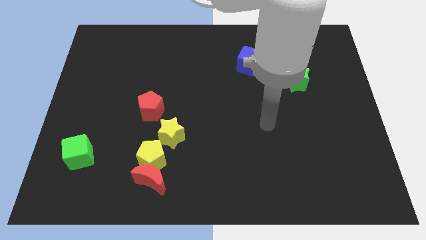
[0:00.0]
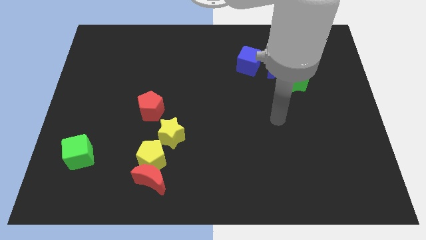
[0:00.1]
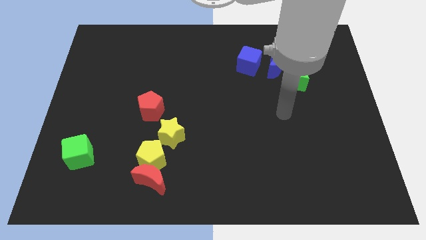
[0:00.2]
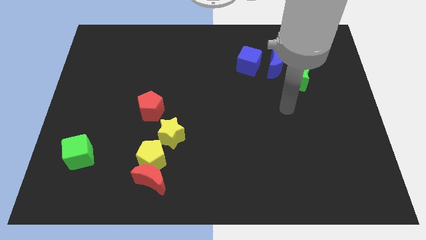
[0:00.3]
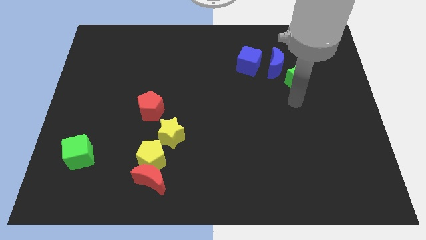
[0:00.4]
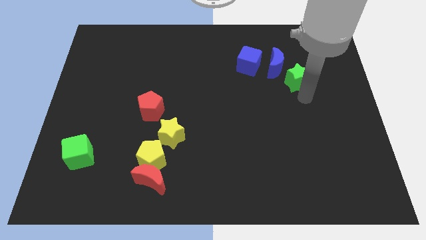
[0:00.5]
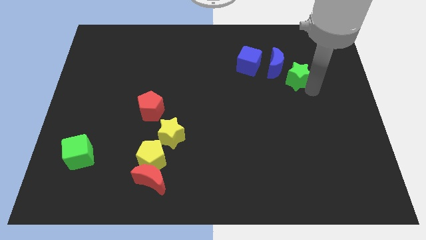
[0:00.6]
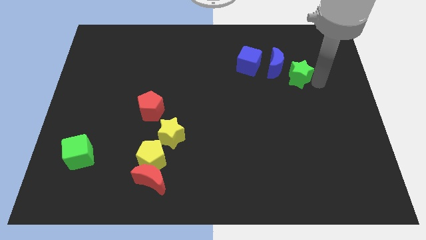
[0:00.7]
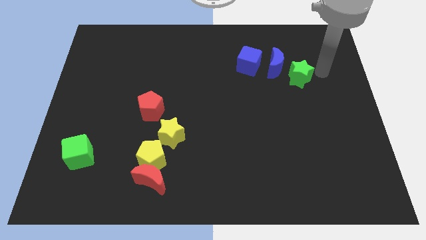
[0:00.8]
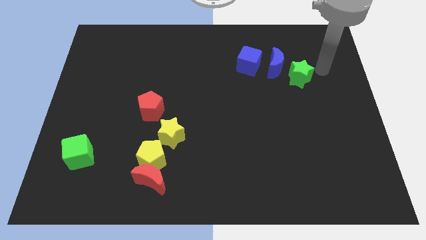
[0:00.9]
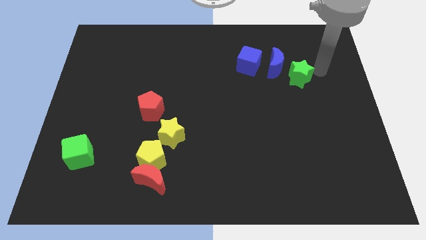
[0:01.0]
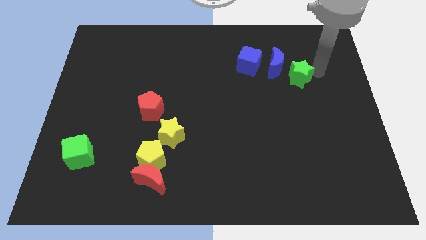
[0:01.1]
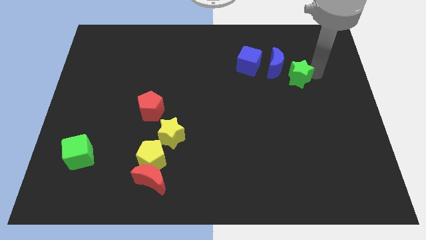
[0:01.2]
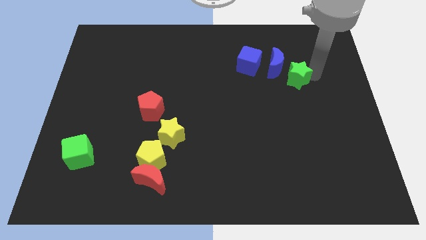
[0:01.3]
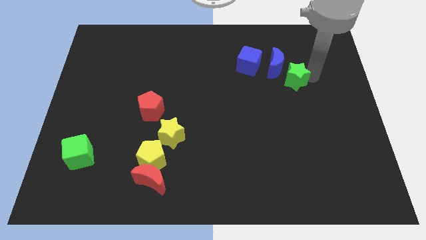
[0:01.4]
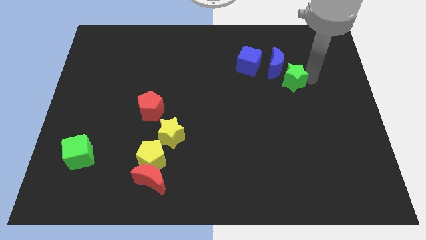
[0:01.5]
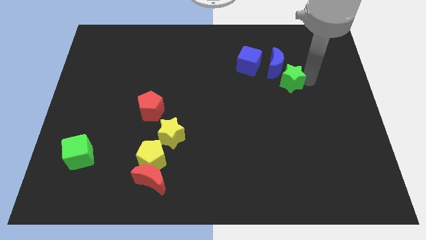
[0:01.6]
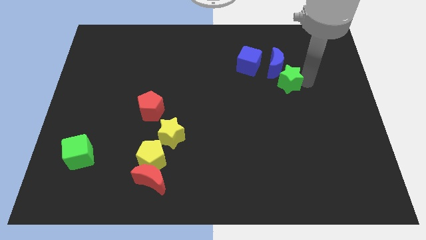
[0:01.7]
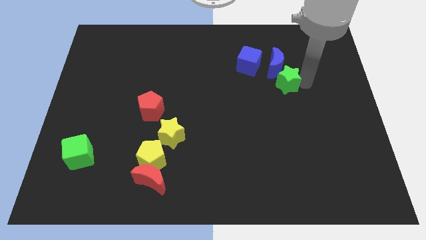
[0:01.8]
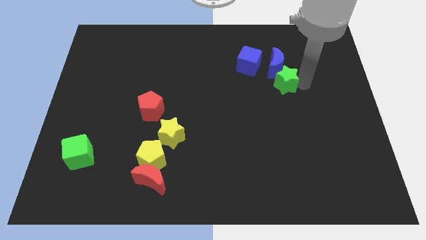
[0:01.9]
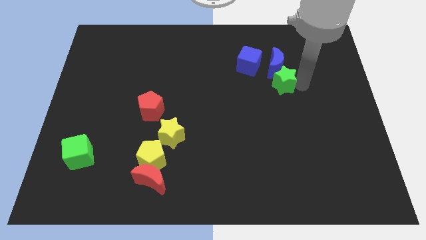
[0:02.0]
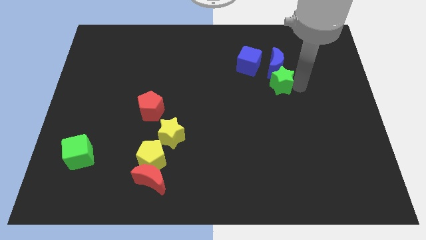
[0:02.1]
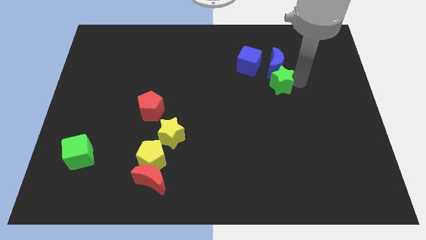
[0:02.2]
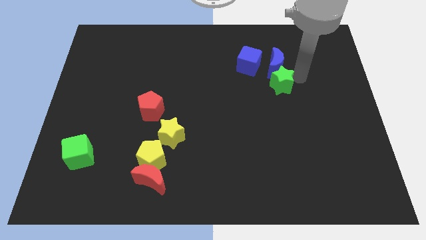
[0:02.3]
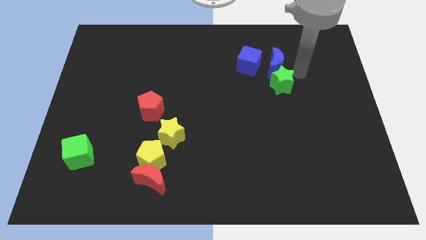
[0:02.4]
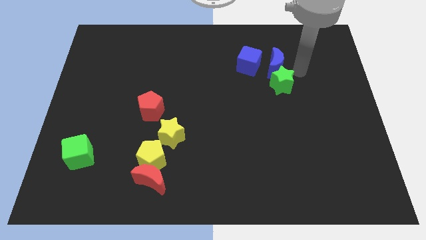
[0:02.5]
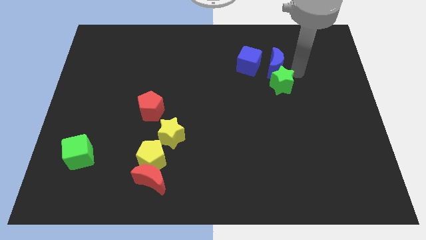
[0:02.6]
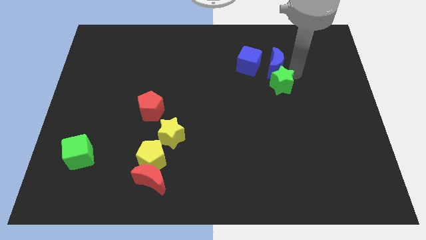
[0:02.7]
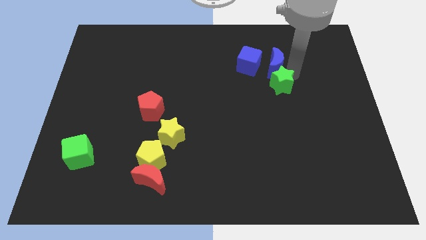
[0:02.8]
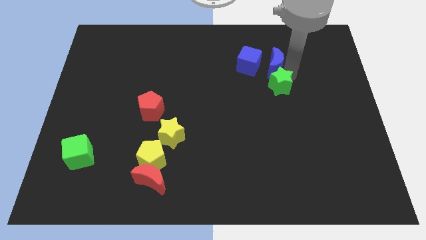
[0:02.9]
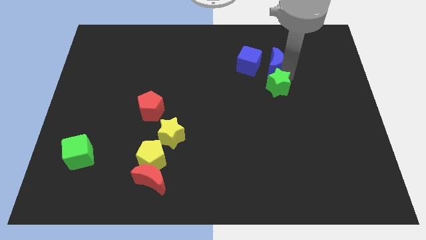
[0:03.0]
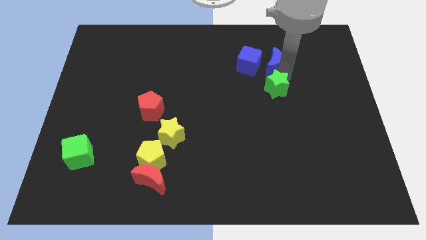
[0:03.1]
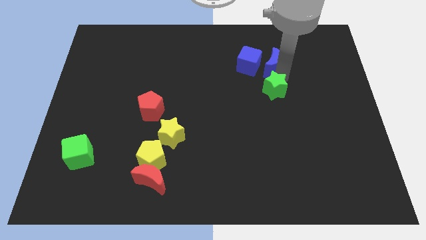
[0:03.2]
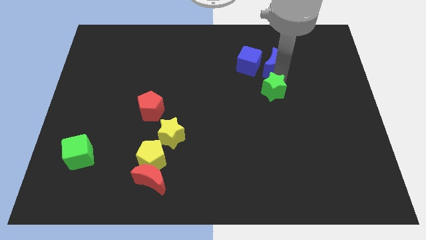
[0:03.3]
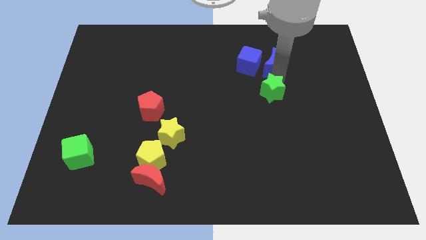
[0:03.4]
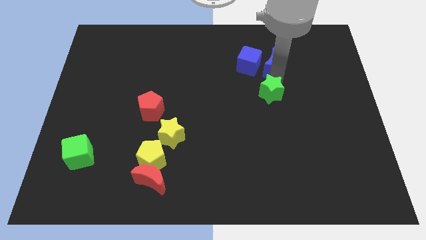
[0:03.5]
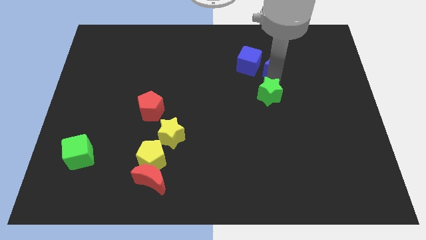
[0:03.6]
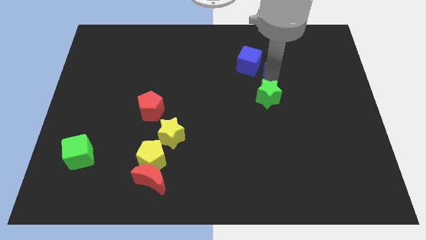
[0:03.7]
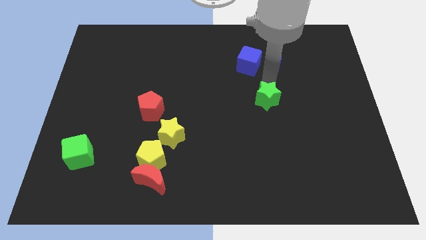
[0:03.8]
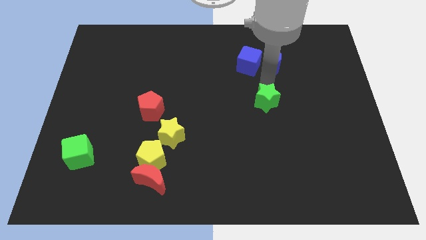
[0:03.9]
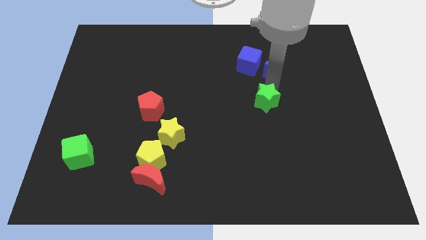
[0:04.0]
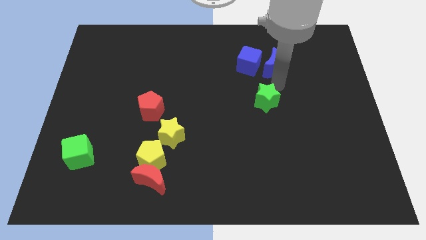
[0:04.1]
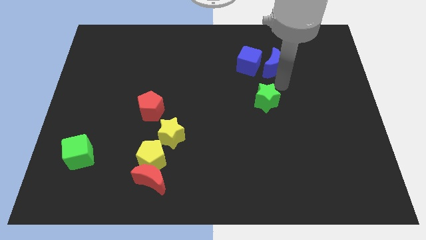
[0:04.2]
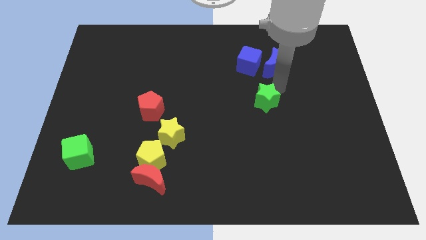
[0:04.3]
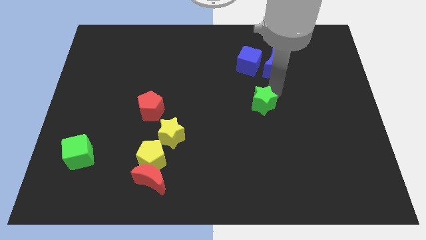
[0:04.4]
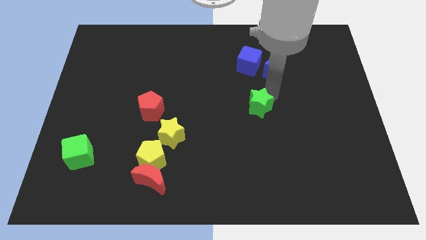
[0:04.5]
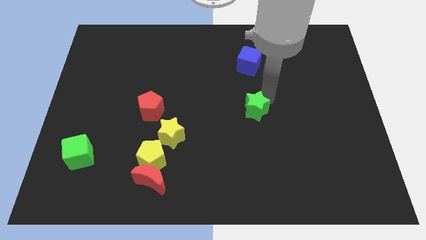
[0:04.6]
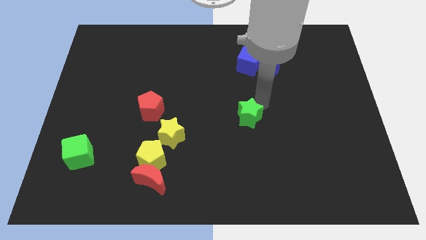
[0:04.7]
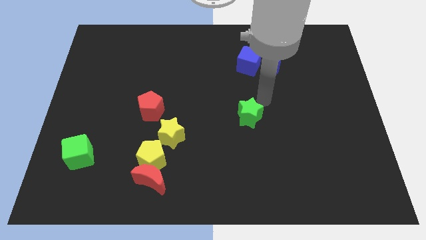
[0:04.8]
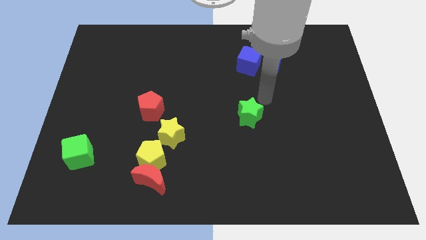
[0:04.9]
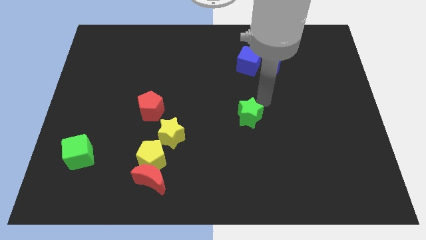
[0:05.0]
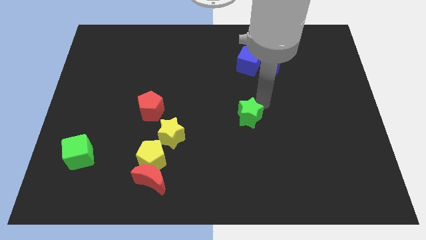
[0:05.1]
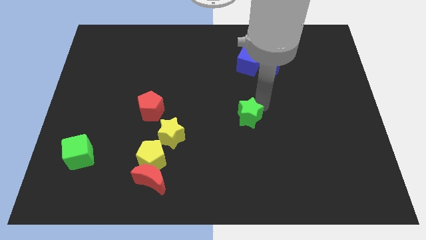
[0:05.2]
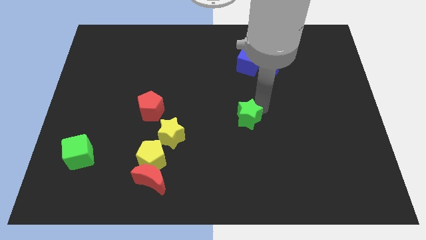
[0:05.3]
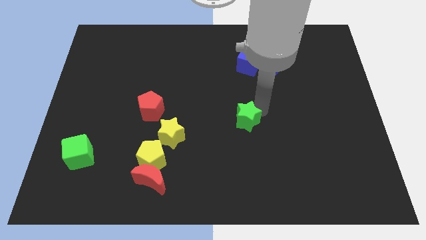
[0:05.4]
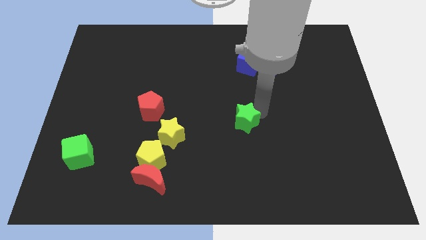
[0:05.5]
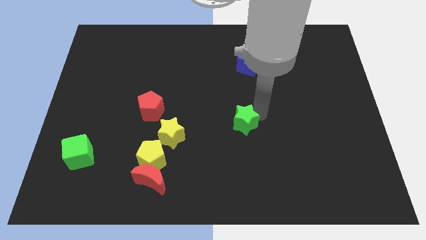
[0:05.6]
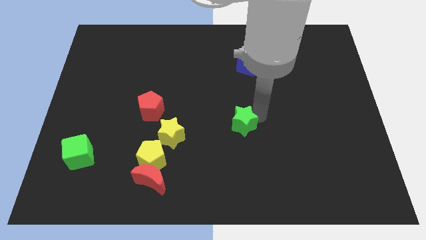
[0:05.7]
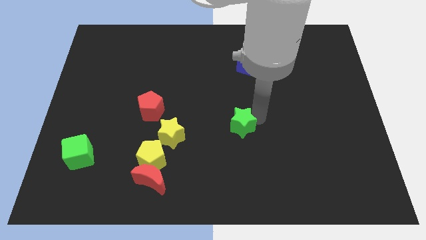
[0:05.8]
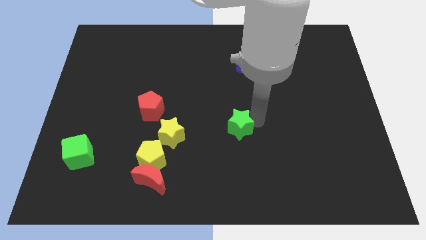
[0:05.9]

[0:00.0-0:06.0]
slide the green star downwards and left diagonally

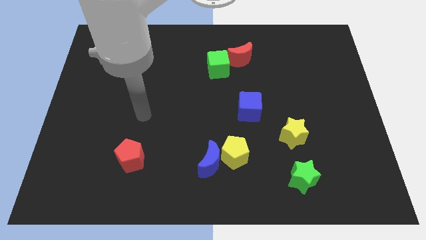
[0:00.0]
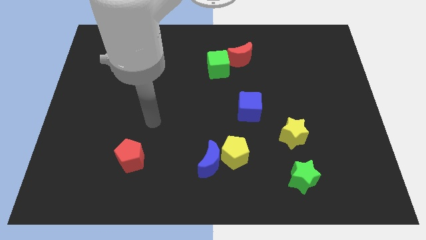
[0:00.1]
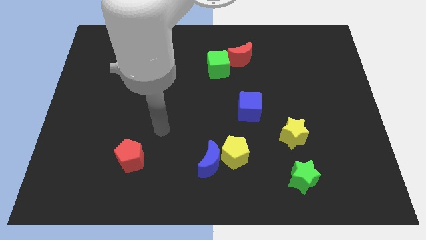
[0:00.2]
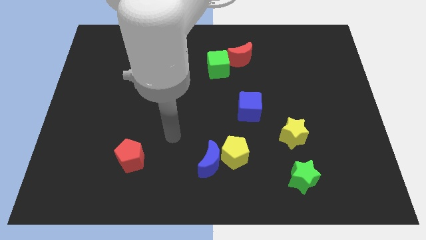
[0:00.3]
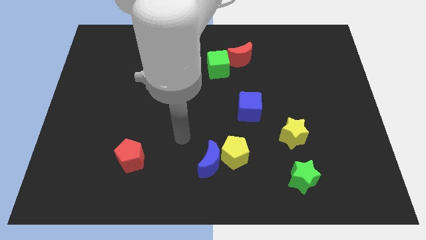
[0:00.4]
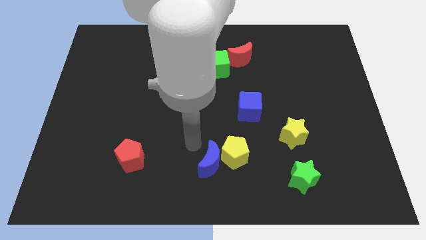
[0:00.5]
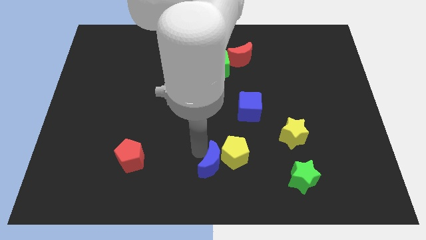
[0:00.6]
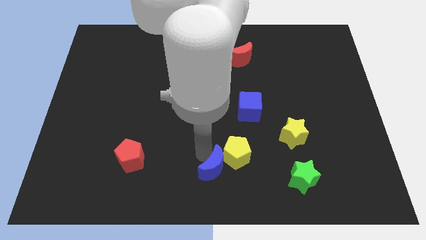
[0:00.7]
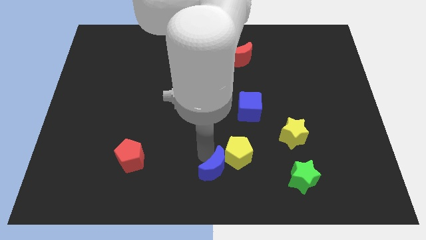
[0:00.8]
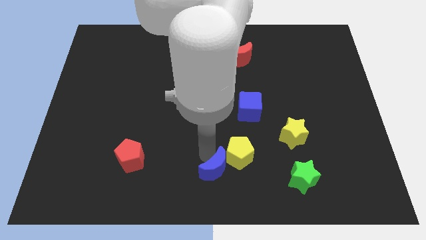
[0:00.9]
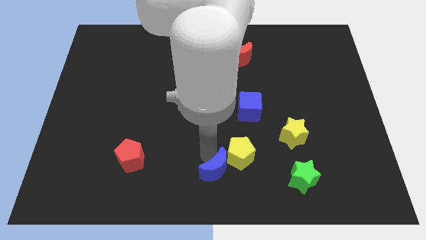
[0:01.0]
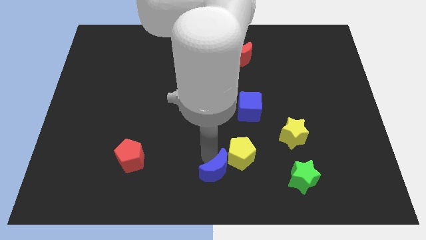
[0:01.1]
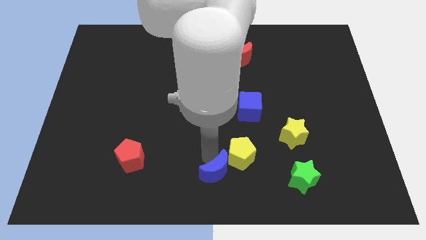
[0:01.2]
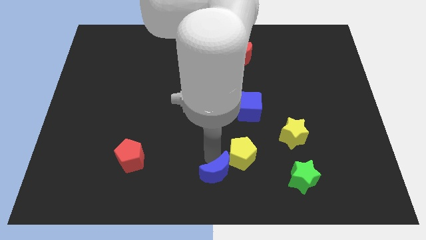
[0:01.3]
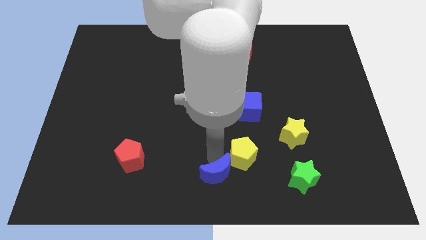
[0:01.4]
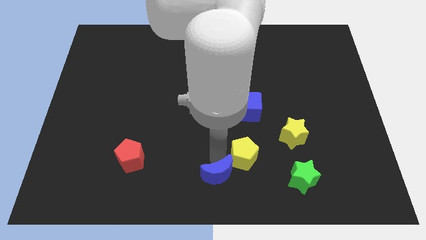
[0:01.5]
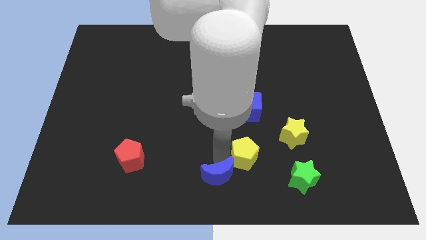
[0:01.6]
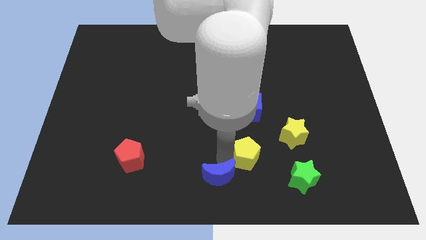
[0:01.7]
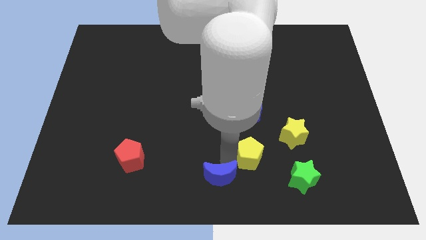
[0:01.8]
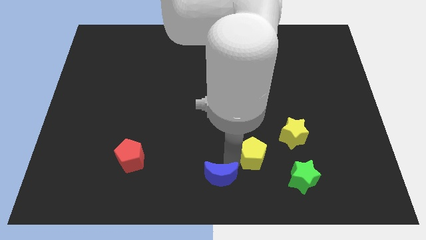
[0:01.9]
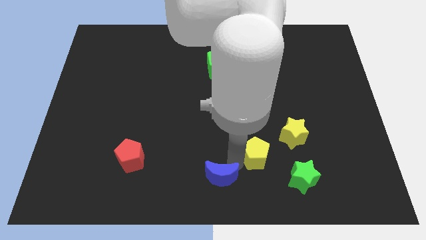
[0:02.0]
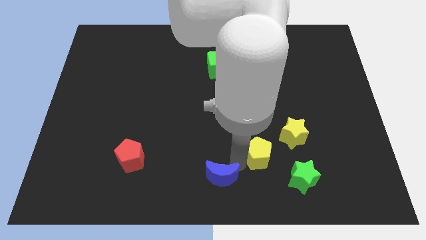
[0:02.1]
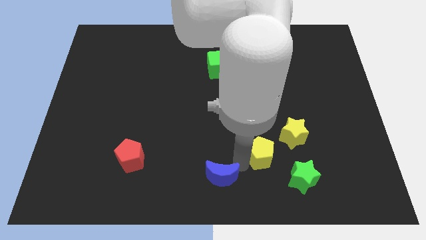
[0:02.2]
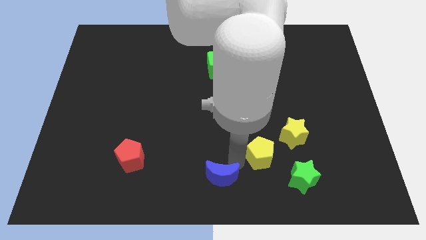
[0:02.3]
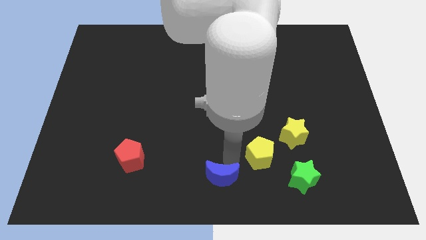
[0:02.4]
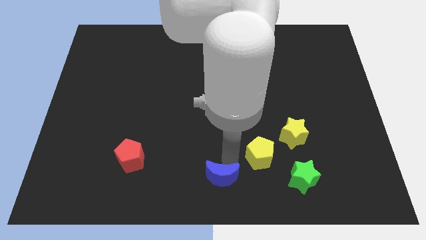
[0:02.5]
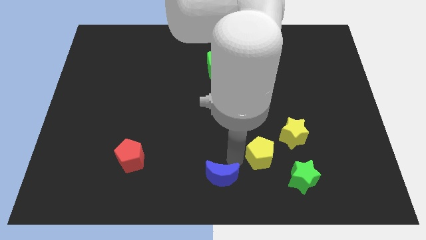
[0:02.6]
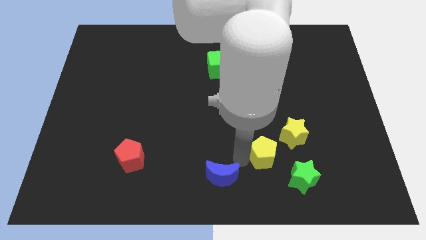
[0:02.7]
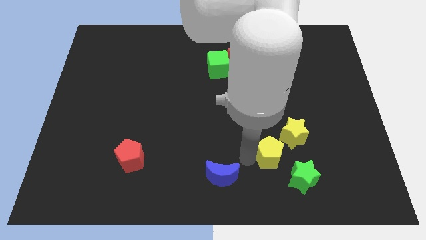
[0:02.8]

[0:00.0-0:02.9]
slide the yellow pentagon a little to the right

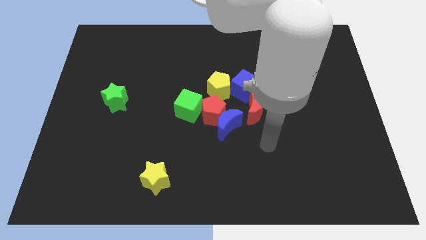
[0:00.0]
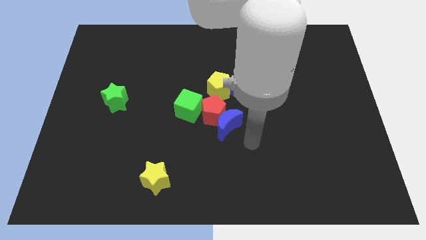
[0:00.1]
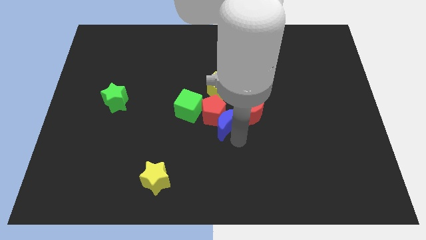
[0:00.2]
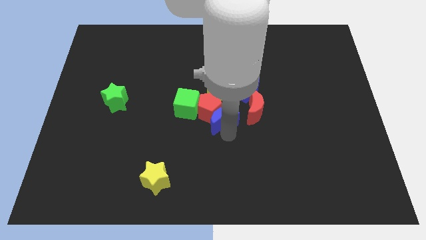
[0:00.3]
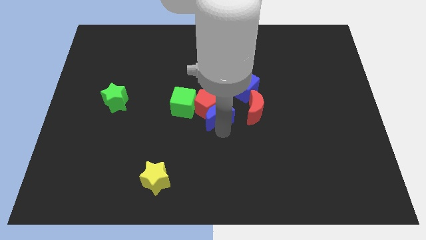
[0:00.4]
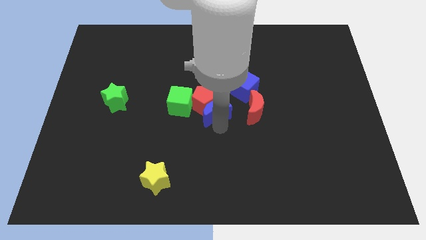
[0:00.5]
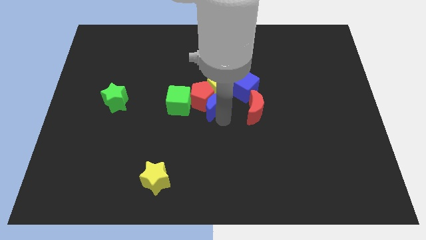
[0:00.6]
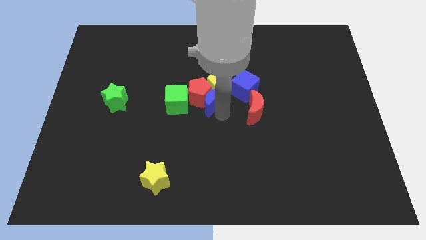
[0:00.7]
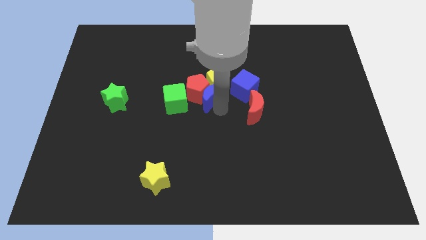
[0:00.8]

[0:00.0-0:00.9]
move the red pentagon up and then to the left a bit
